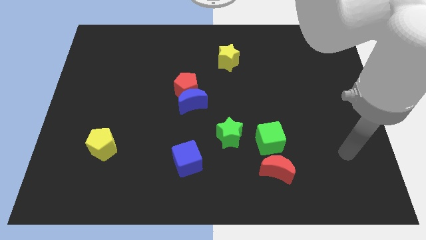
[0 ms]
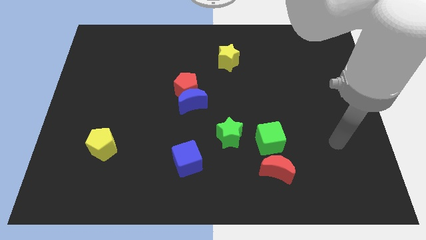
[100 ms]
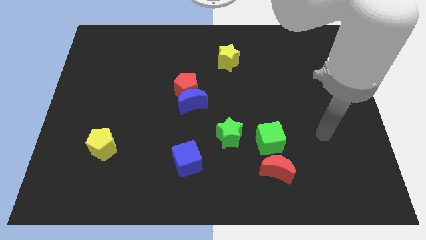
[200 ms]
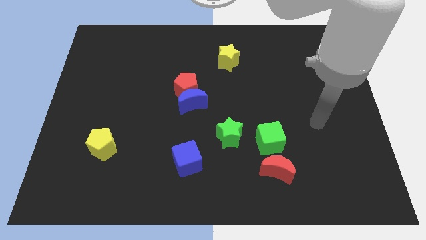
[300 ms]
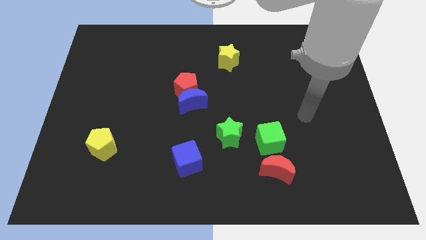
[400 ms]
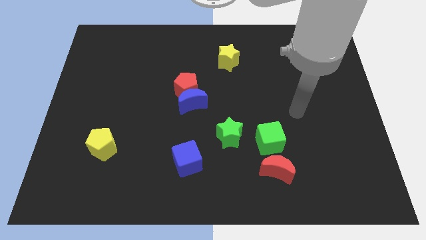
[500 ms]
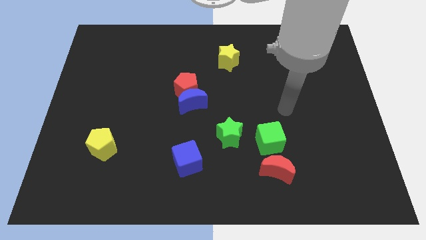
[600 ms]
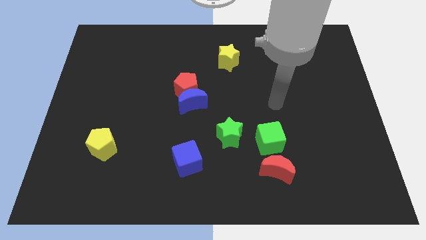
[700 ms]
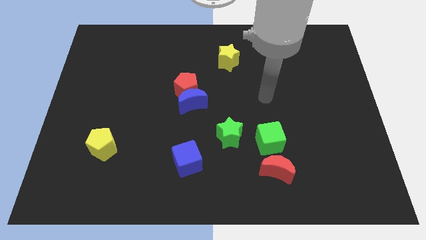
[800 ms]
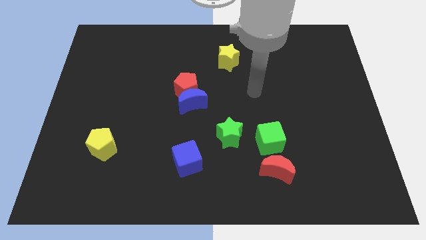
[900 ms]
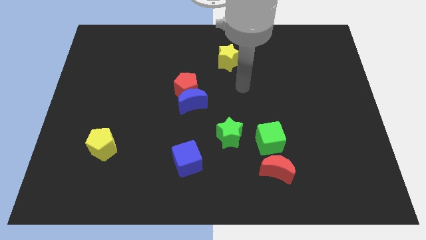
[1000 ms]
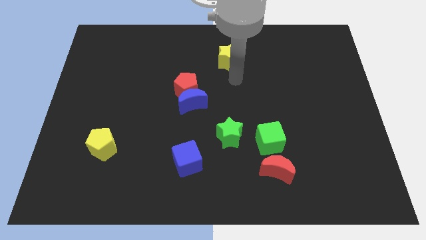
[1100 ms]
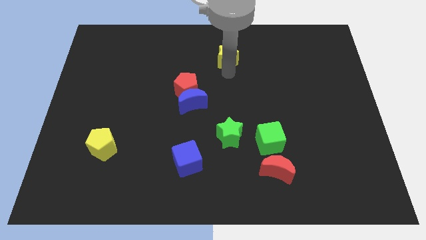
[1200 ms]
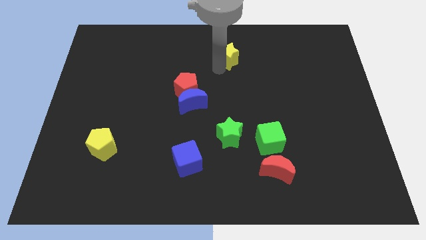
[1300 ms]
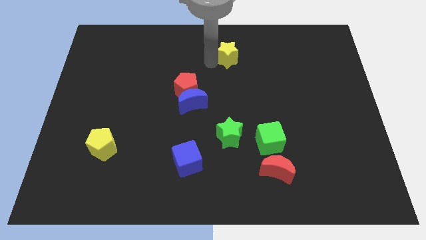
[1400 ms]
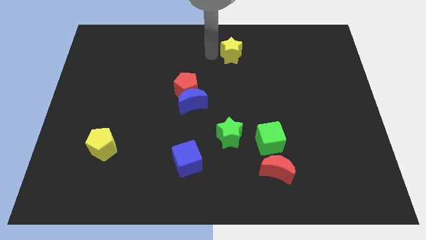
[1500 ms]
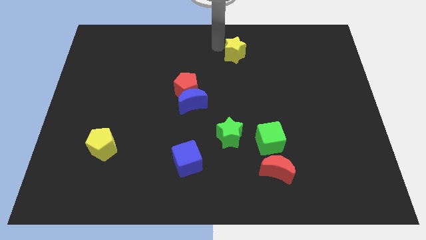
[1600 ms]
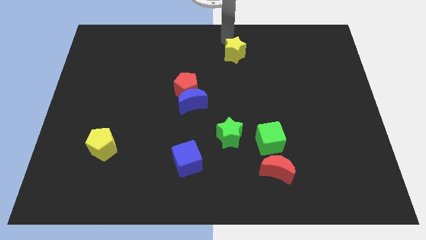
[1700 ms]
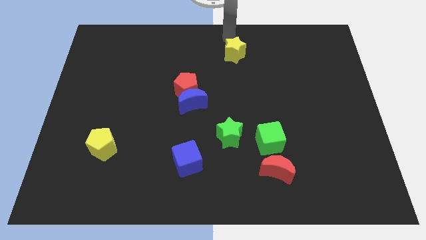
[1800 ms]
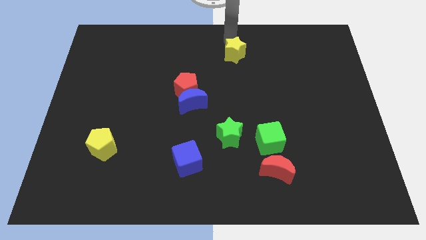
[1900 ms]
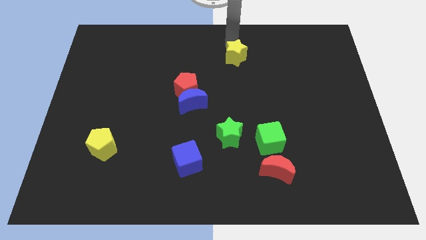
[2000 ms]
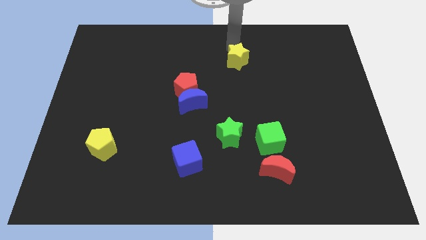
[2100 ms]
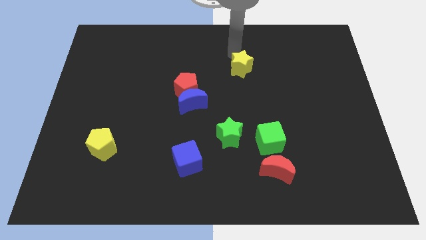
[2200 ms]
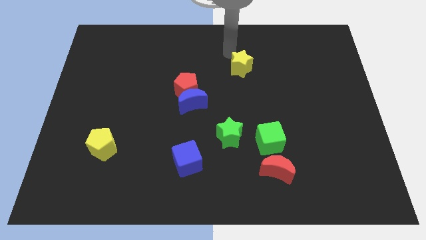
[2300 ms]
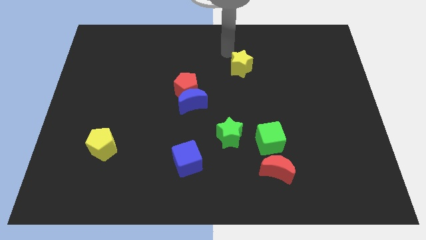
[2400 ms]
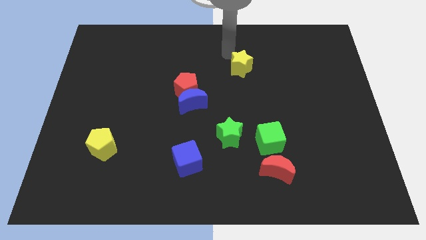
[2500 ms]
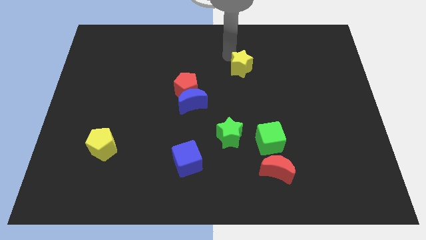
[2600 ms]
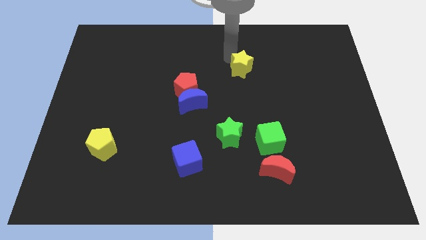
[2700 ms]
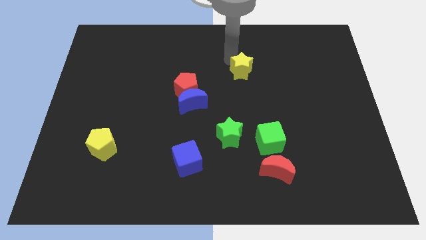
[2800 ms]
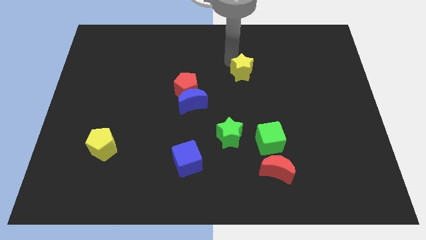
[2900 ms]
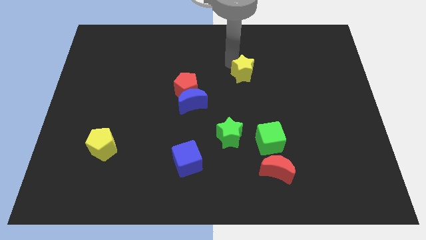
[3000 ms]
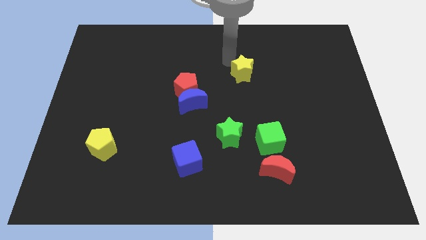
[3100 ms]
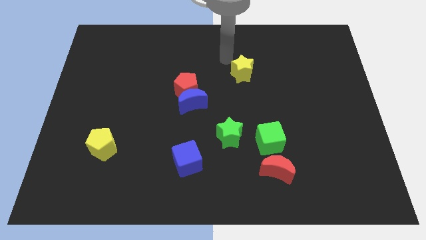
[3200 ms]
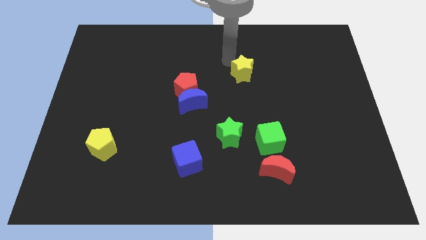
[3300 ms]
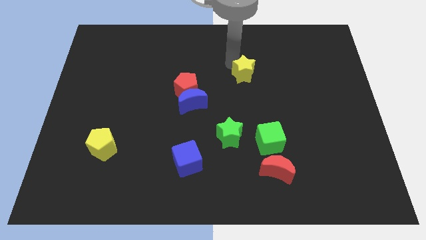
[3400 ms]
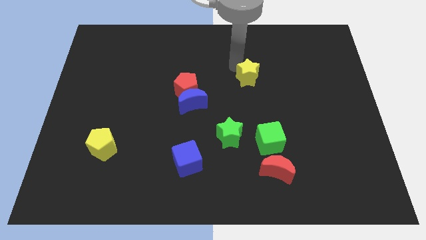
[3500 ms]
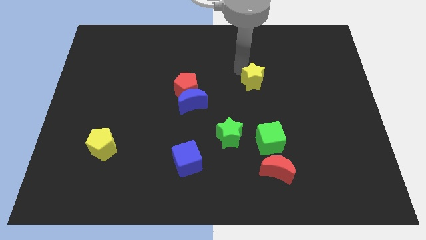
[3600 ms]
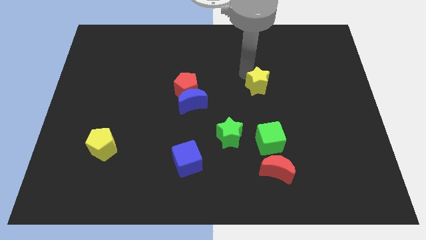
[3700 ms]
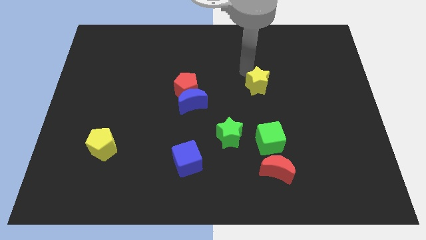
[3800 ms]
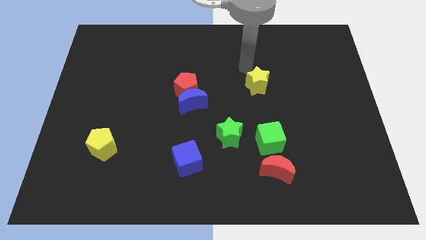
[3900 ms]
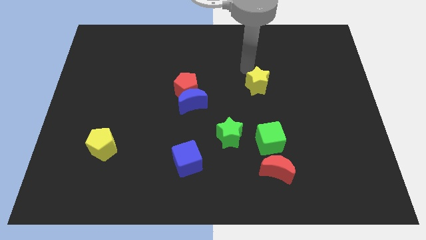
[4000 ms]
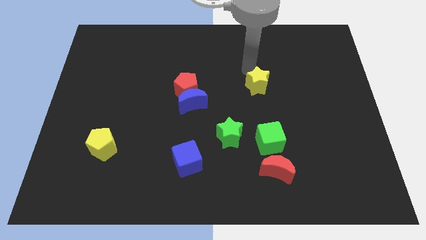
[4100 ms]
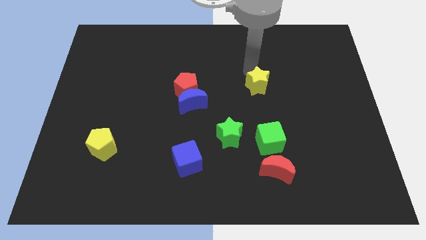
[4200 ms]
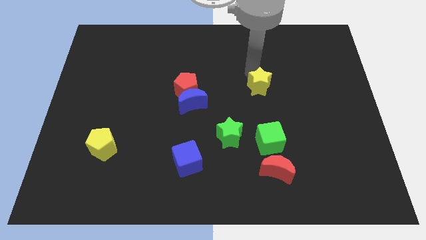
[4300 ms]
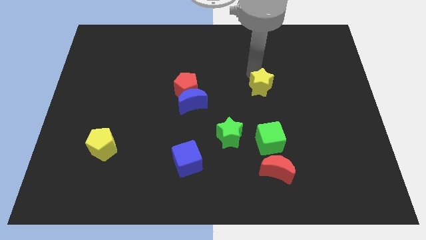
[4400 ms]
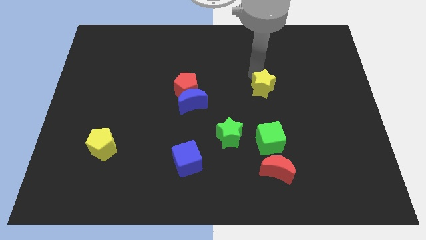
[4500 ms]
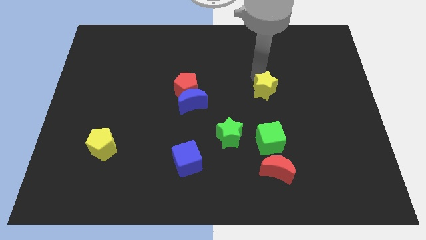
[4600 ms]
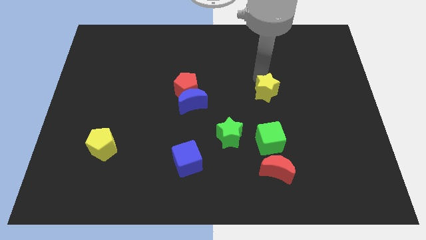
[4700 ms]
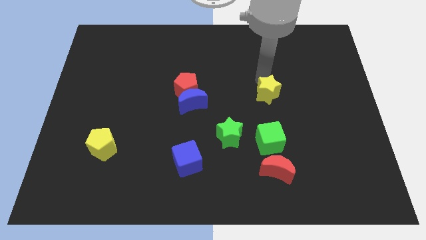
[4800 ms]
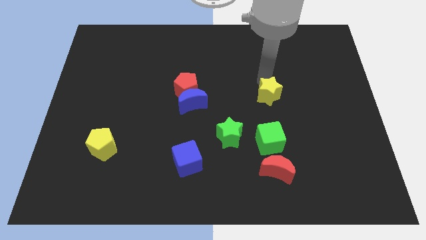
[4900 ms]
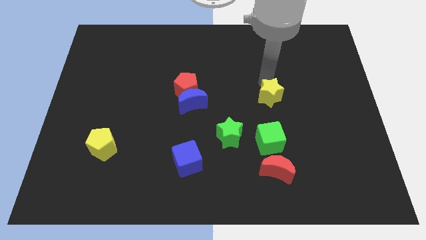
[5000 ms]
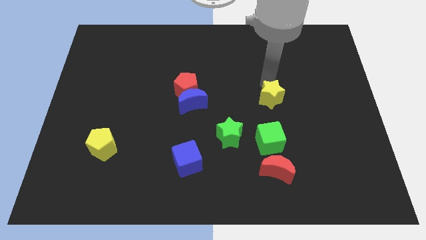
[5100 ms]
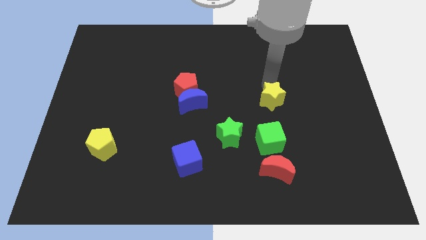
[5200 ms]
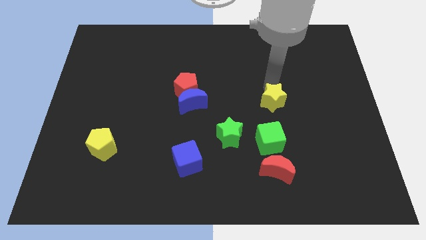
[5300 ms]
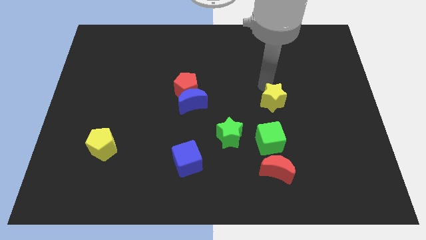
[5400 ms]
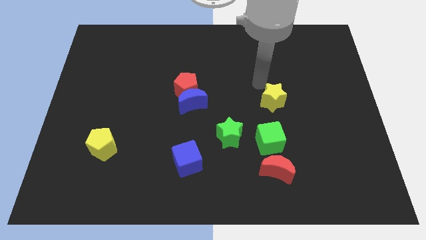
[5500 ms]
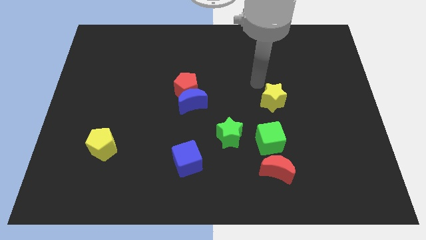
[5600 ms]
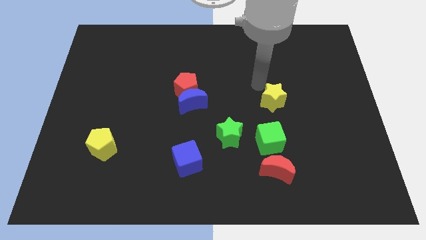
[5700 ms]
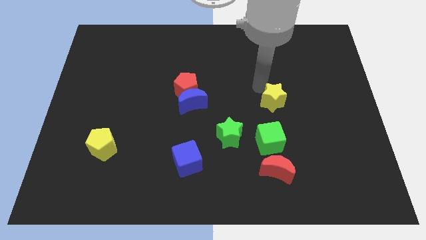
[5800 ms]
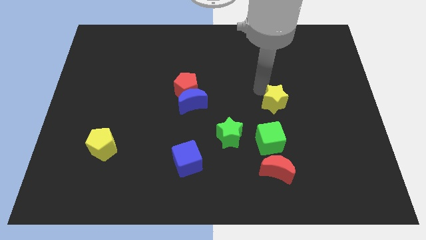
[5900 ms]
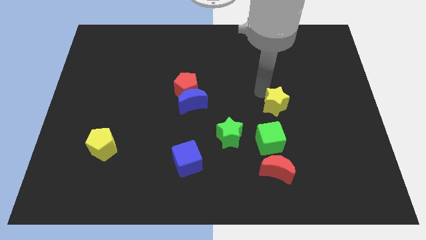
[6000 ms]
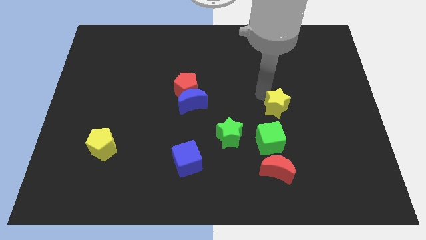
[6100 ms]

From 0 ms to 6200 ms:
slide the yellow star to the top right side of the green cube

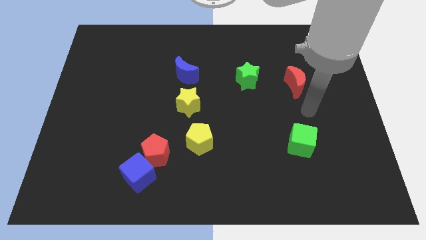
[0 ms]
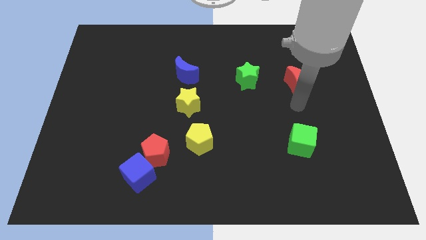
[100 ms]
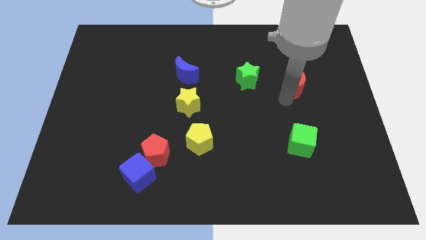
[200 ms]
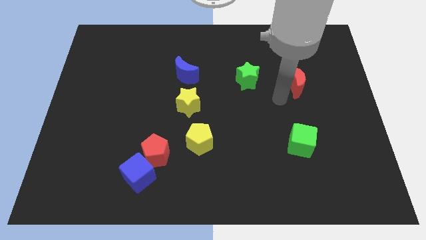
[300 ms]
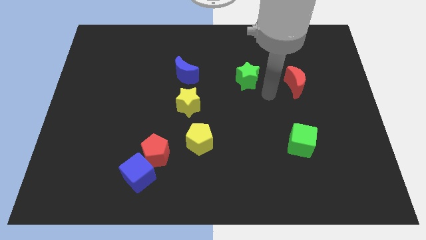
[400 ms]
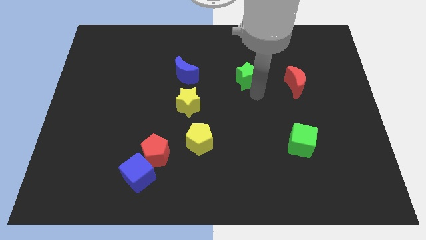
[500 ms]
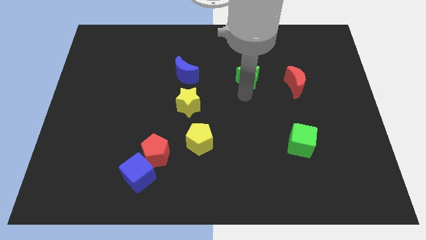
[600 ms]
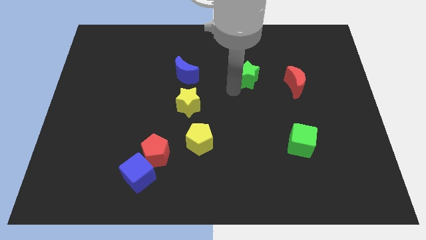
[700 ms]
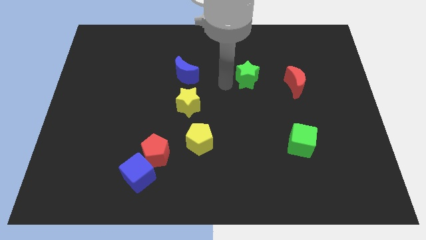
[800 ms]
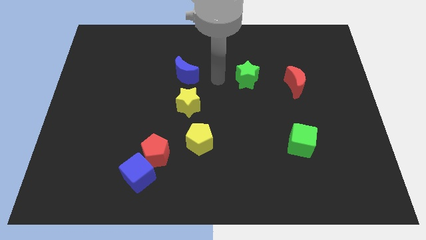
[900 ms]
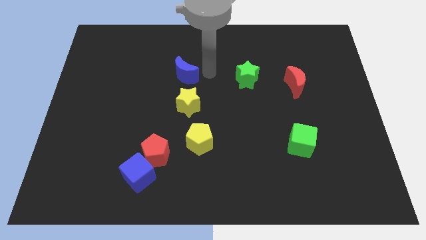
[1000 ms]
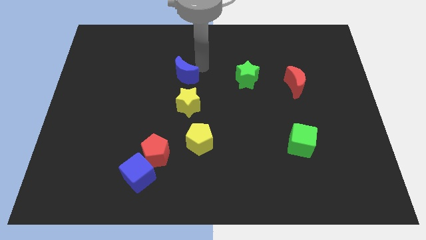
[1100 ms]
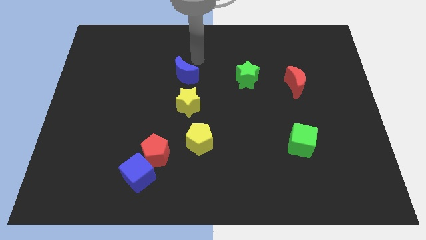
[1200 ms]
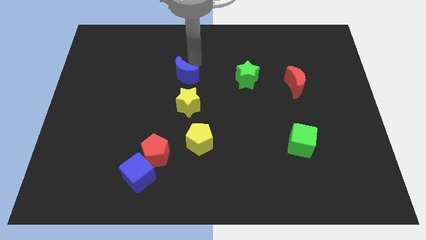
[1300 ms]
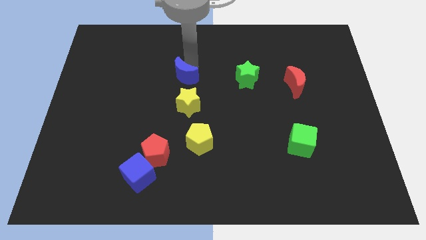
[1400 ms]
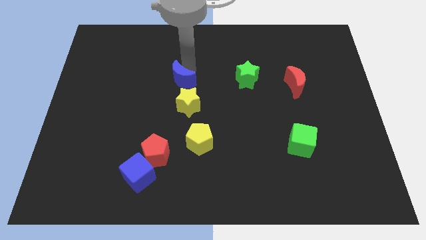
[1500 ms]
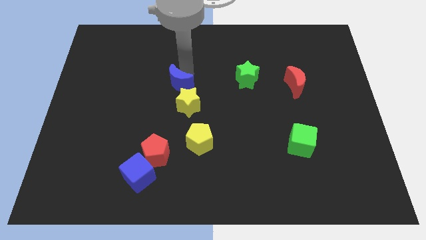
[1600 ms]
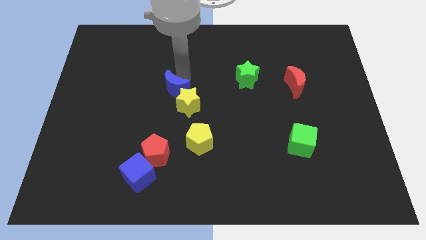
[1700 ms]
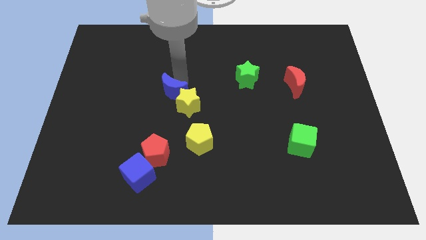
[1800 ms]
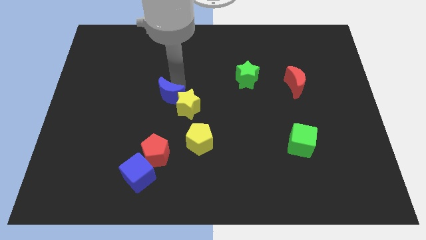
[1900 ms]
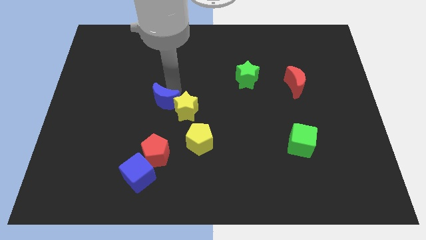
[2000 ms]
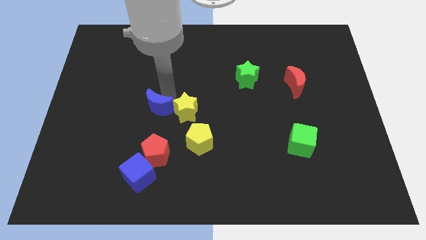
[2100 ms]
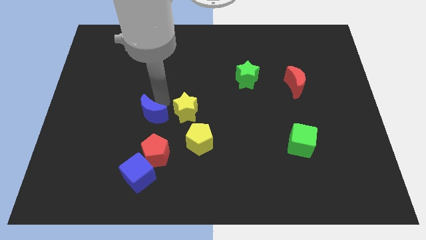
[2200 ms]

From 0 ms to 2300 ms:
slide the blue moon to the top of the blue cube
